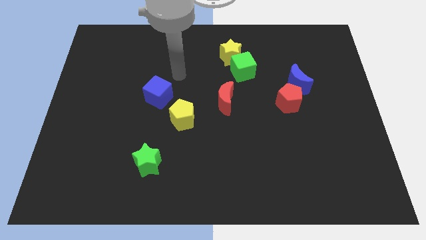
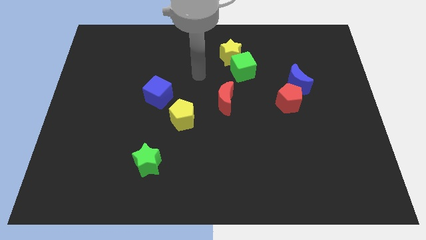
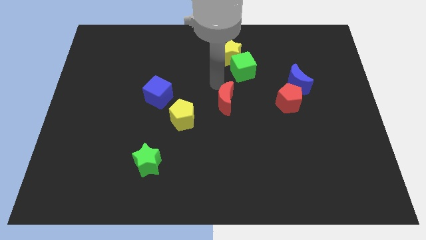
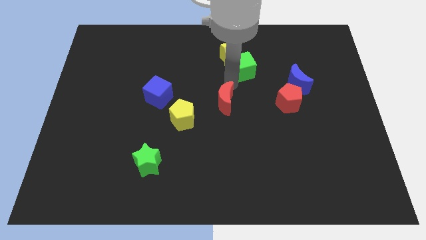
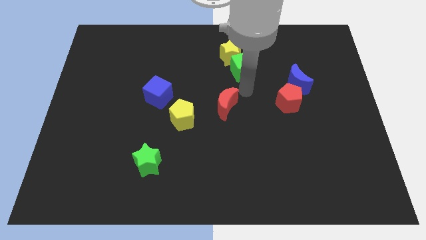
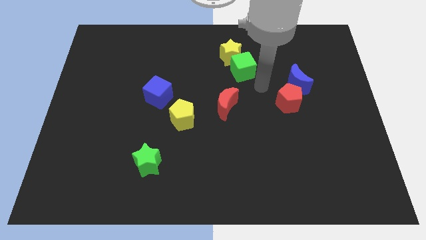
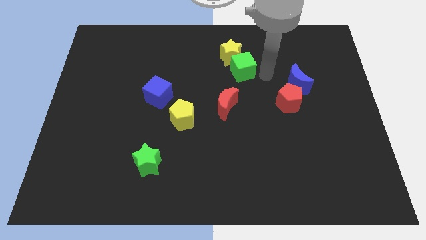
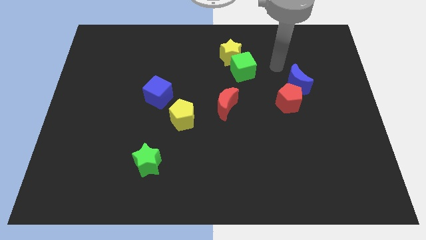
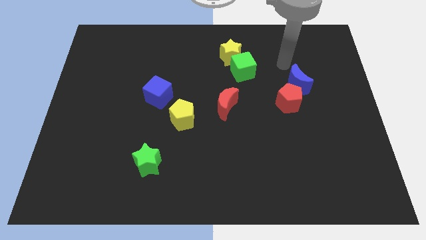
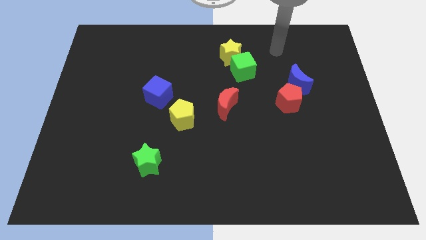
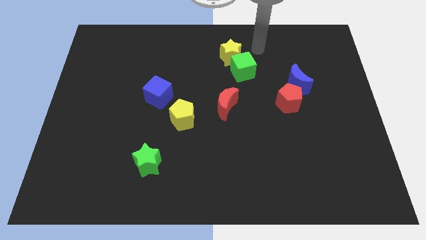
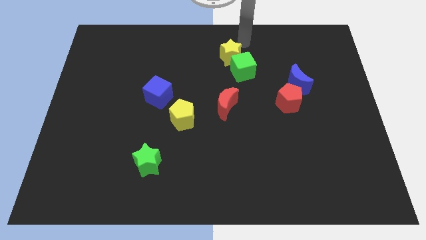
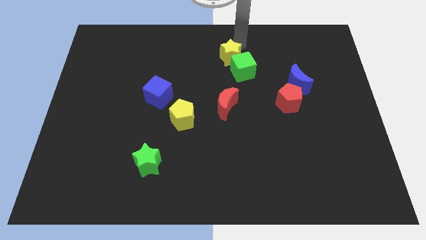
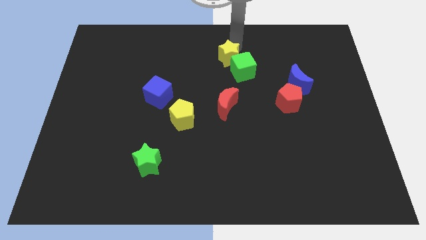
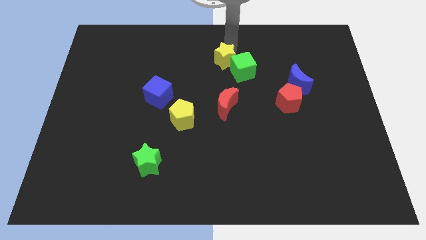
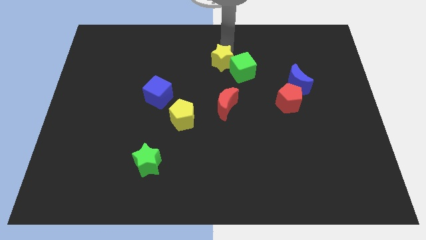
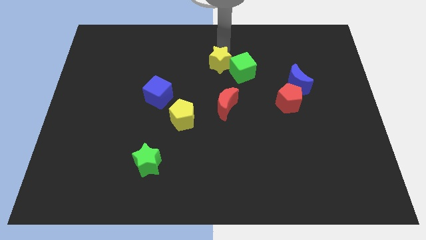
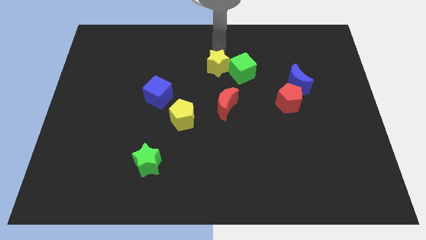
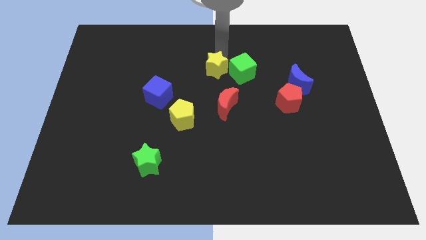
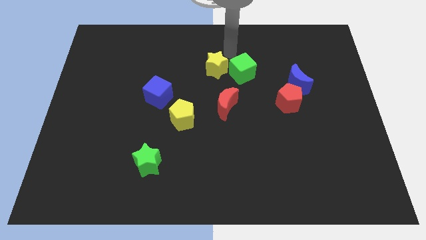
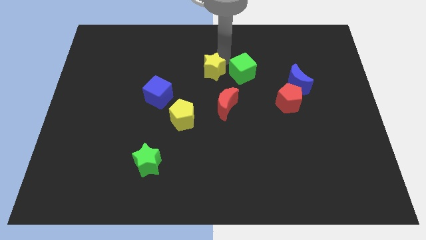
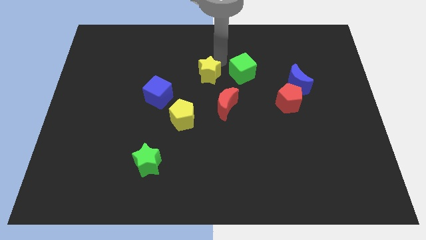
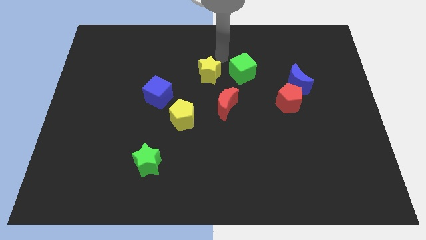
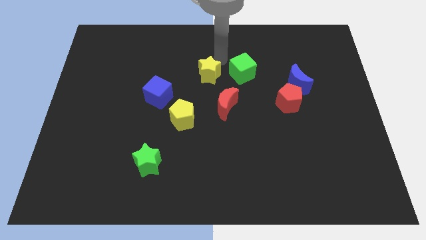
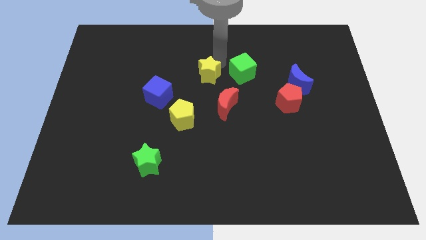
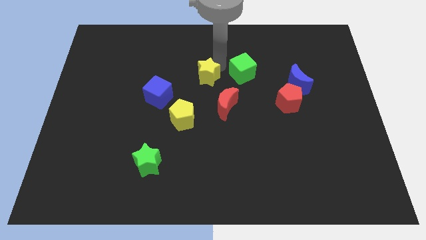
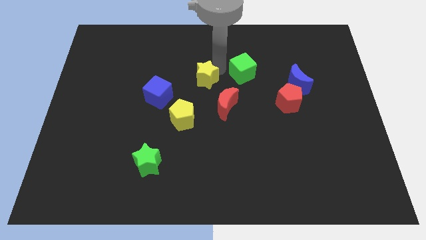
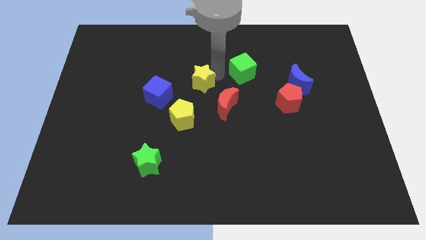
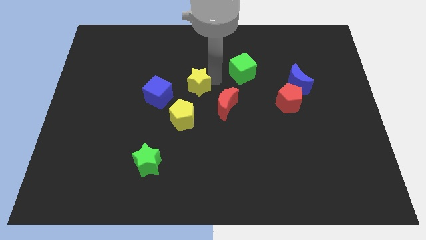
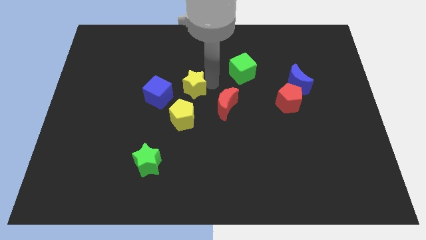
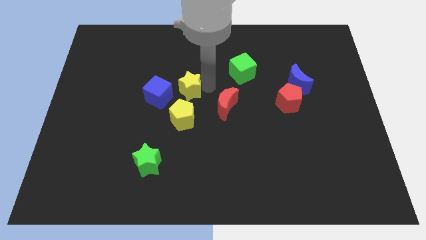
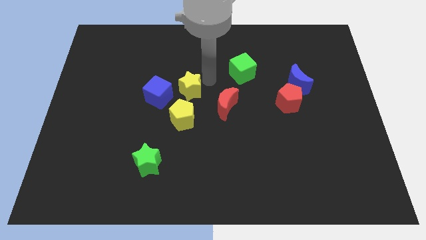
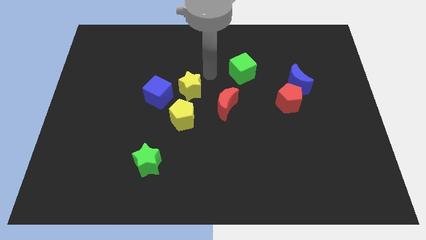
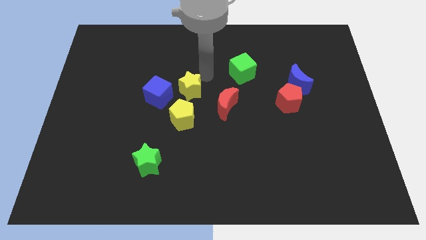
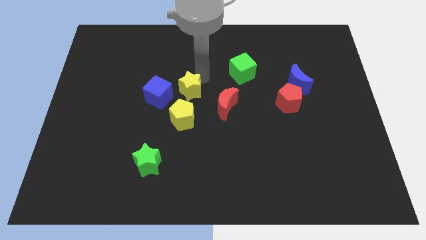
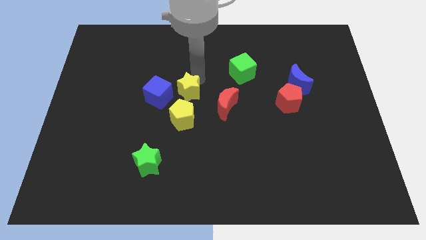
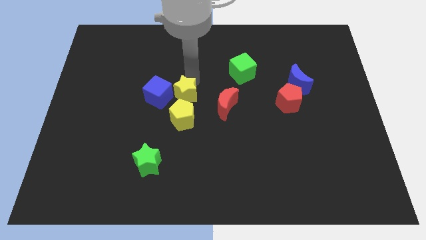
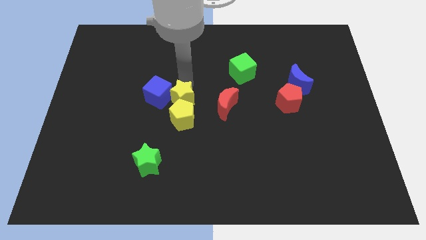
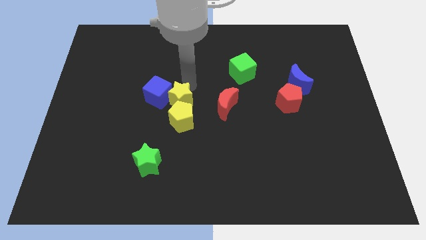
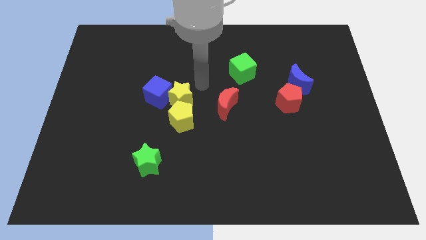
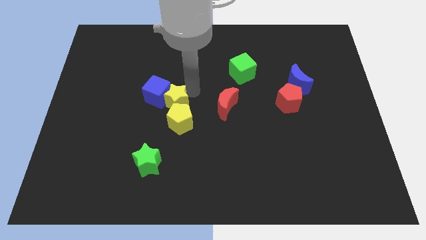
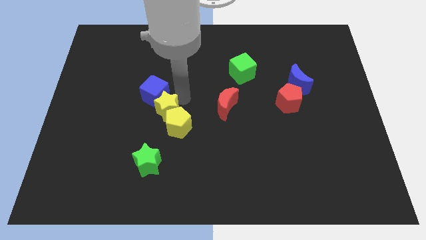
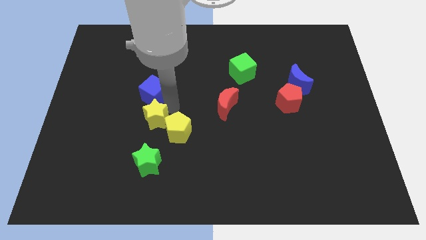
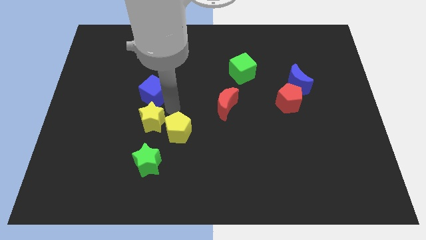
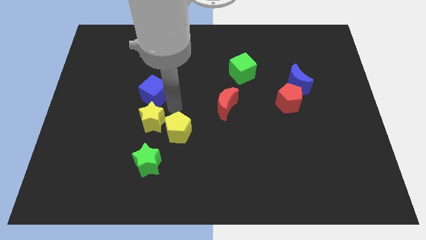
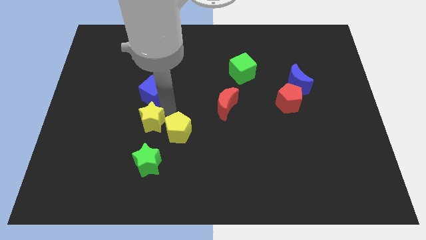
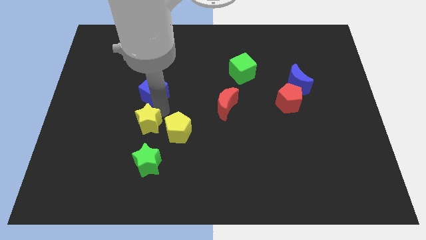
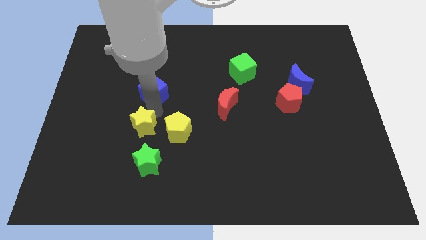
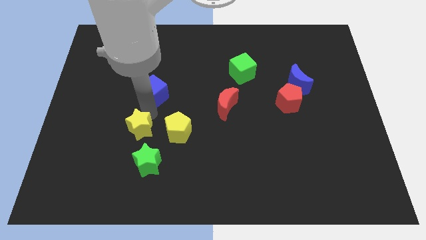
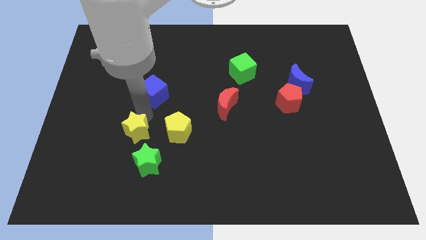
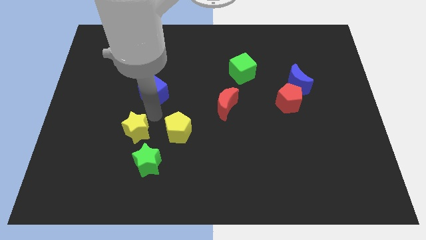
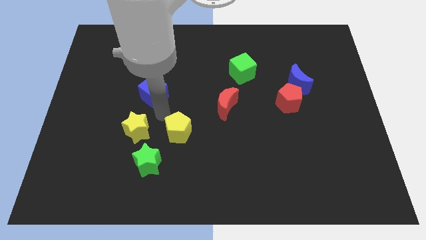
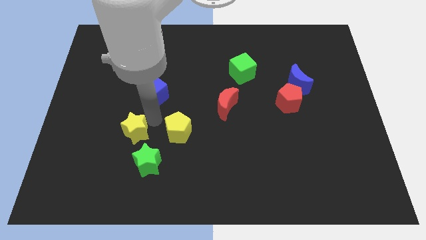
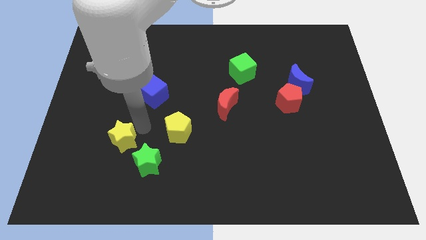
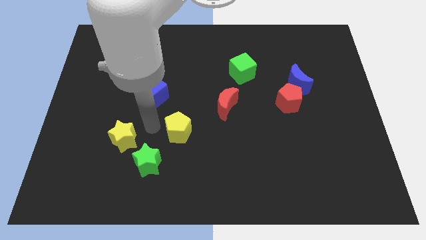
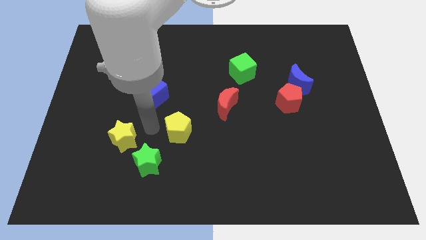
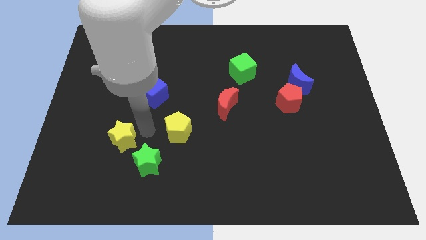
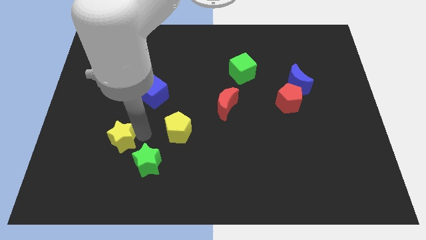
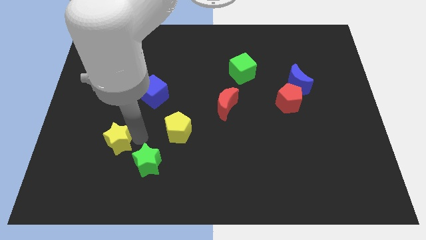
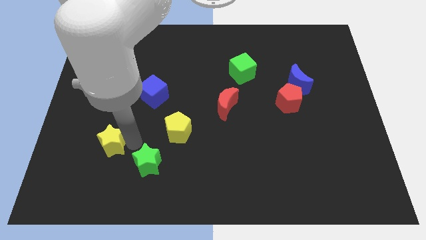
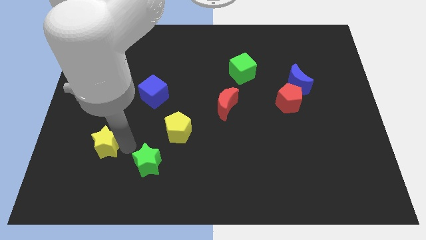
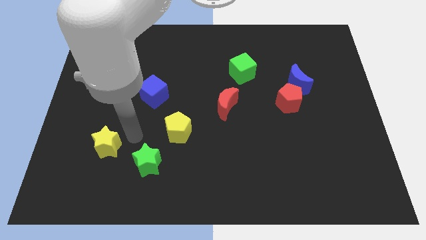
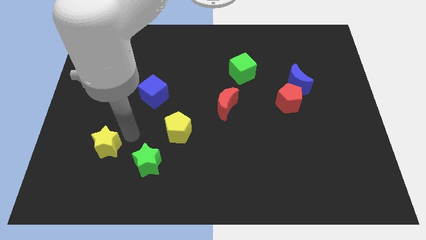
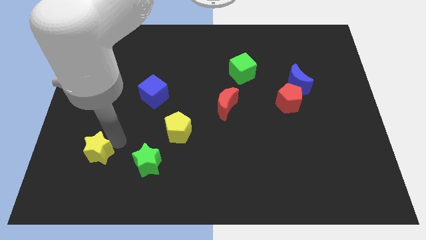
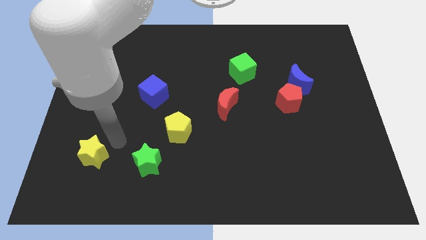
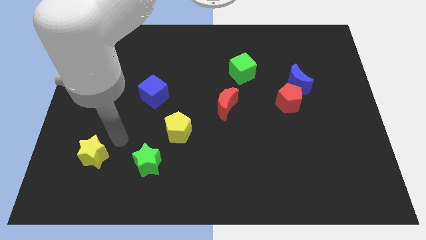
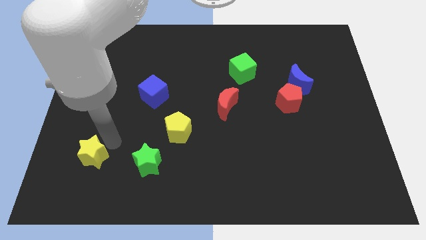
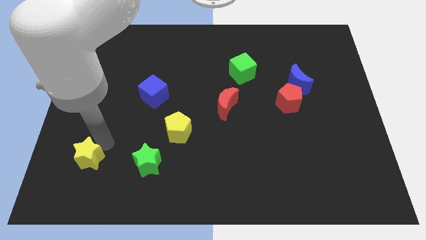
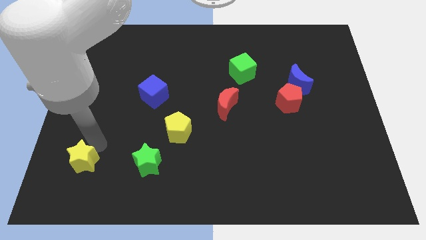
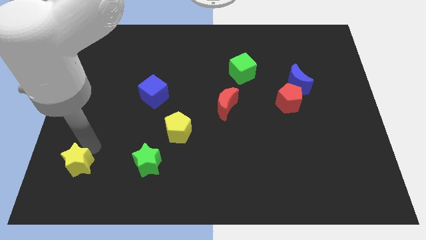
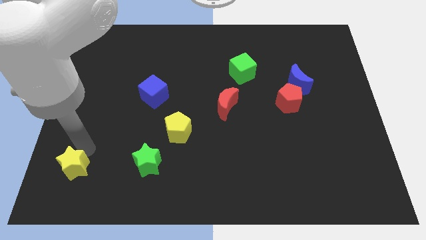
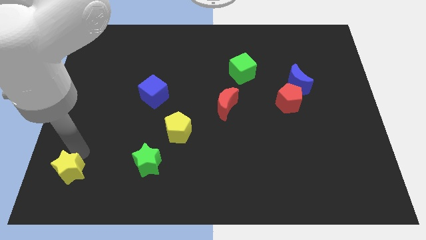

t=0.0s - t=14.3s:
push the yellow star to the bottom left corner
